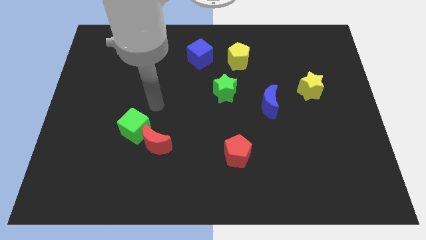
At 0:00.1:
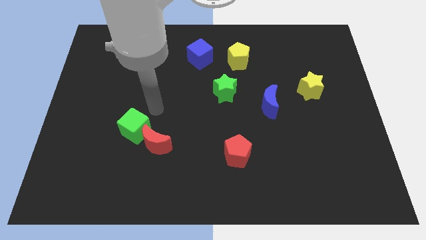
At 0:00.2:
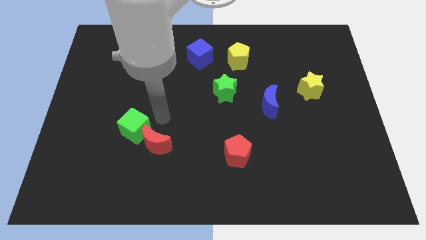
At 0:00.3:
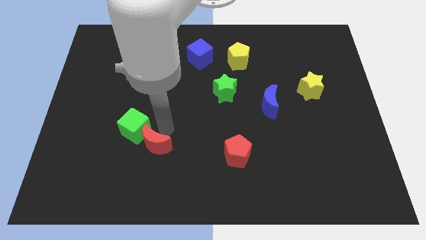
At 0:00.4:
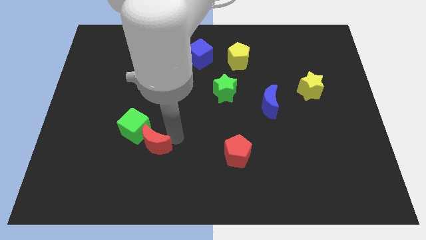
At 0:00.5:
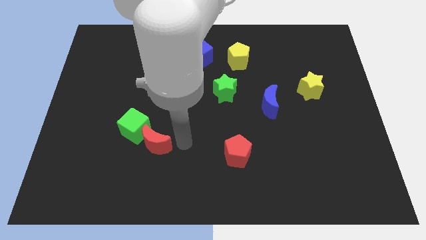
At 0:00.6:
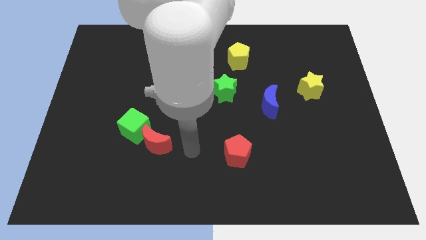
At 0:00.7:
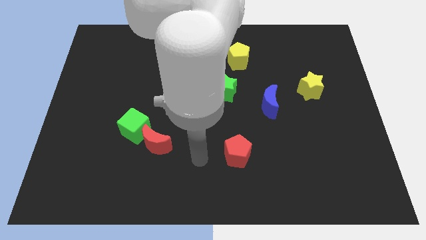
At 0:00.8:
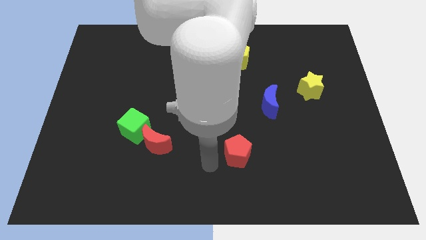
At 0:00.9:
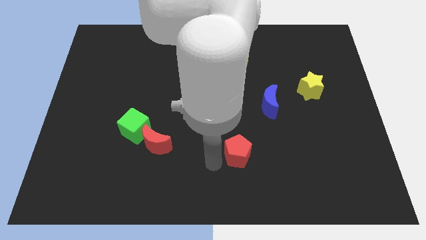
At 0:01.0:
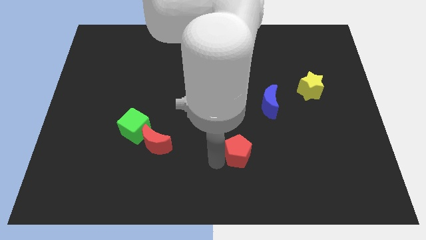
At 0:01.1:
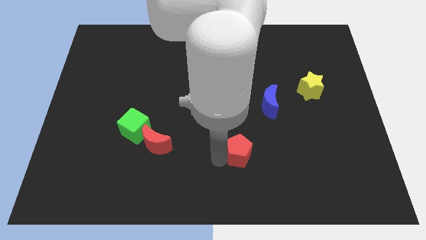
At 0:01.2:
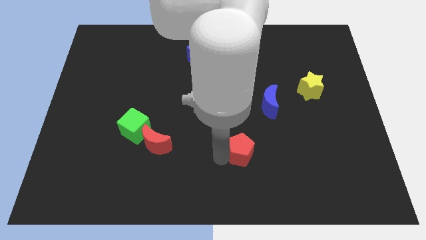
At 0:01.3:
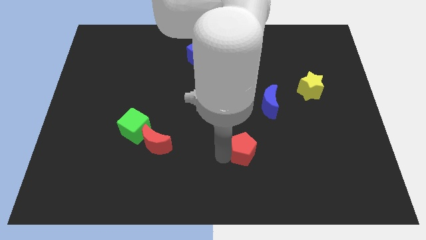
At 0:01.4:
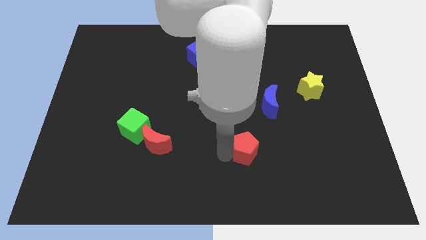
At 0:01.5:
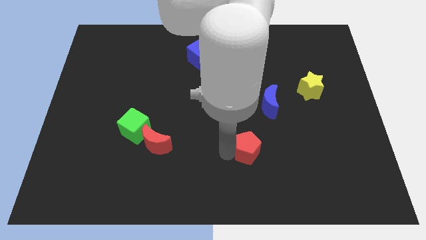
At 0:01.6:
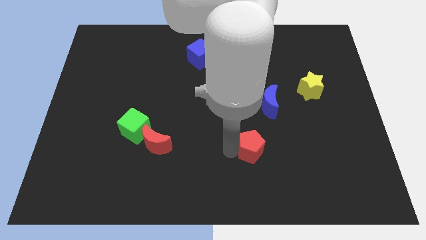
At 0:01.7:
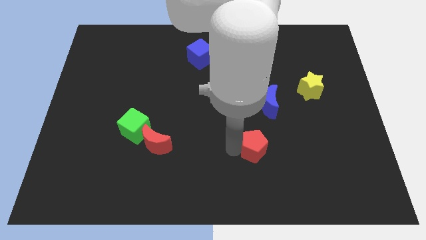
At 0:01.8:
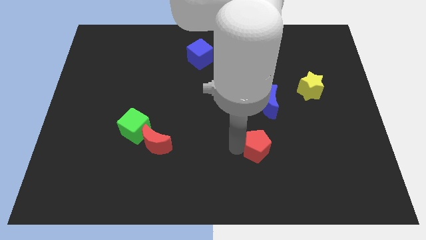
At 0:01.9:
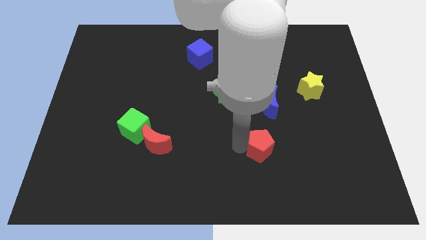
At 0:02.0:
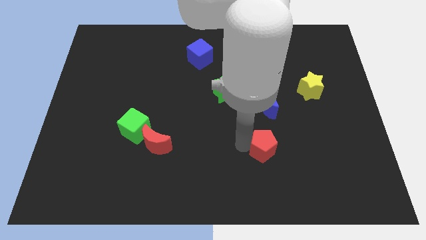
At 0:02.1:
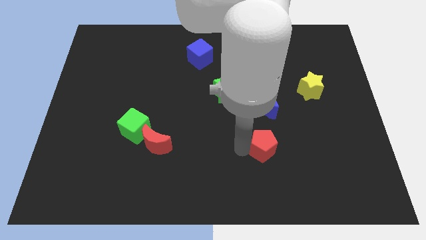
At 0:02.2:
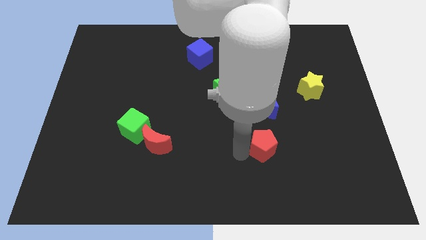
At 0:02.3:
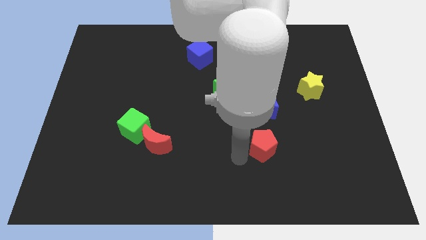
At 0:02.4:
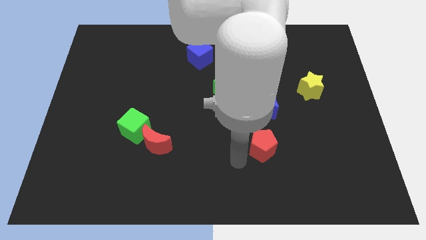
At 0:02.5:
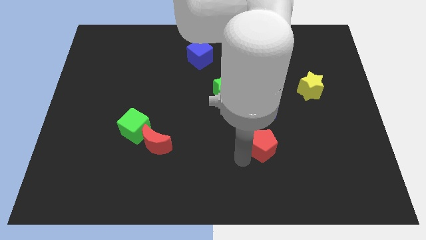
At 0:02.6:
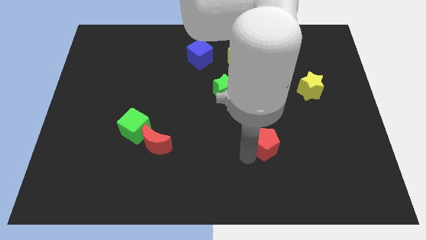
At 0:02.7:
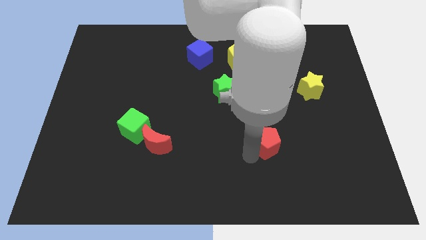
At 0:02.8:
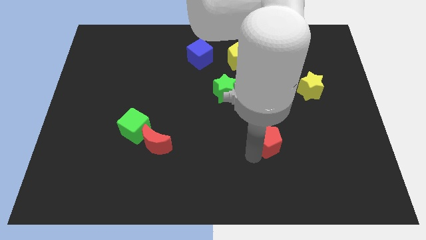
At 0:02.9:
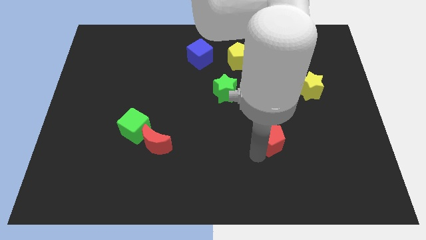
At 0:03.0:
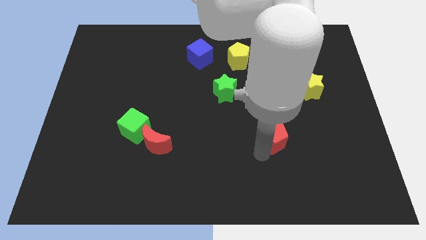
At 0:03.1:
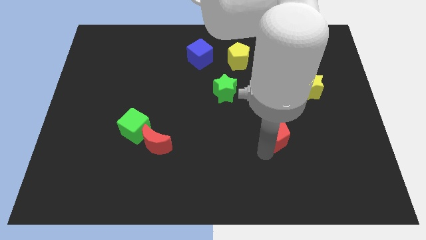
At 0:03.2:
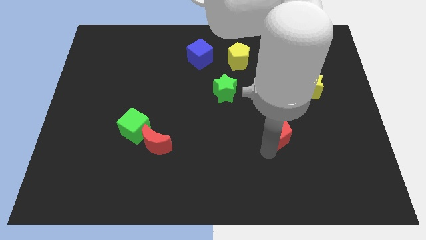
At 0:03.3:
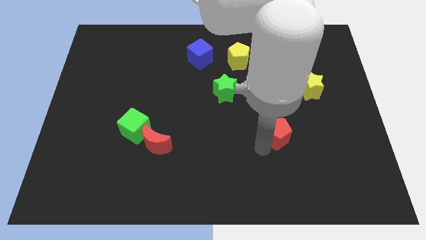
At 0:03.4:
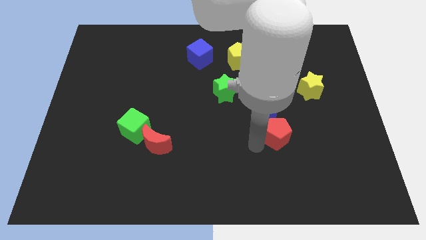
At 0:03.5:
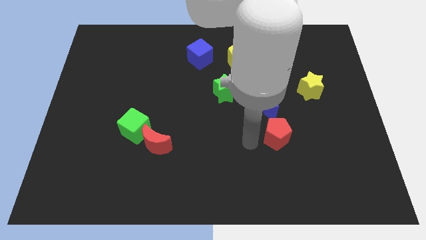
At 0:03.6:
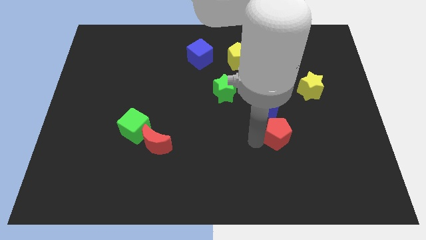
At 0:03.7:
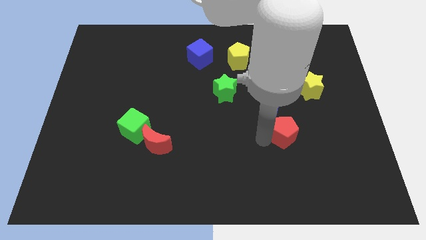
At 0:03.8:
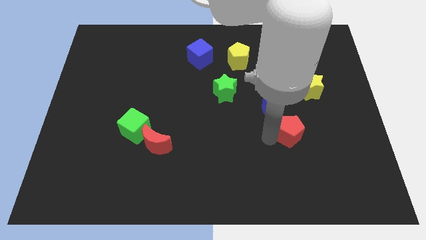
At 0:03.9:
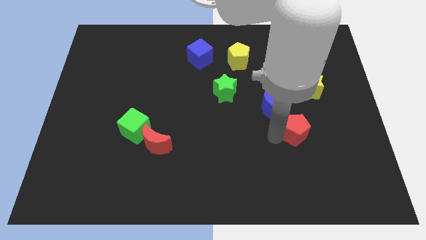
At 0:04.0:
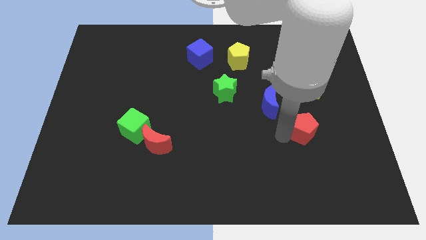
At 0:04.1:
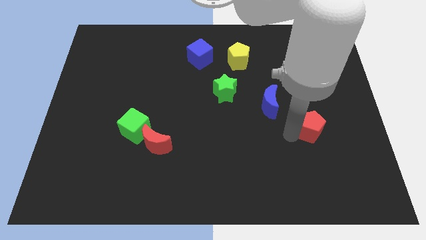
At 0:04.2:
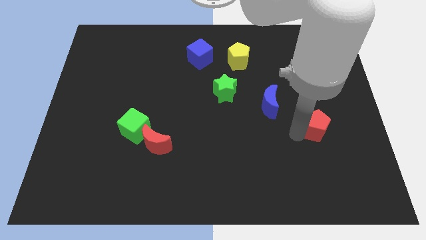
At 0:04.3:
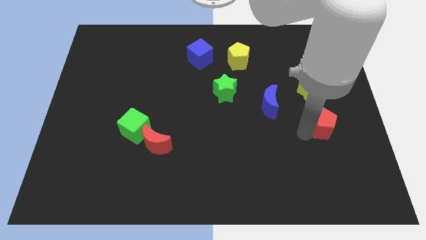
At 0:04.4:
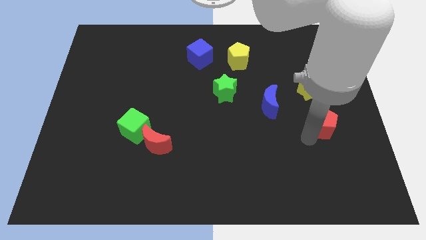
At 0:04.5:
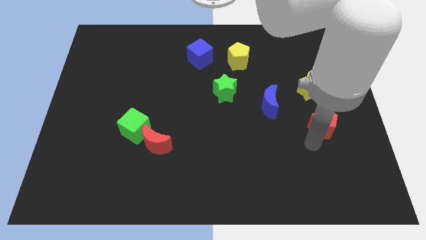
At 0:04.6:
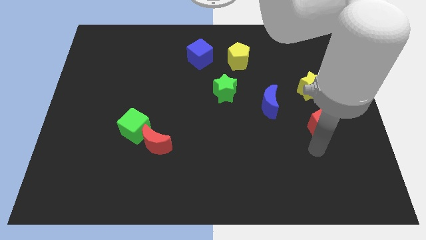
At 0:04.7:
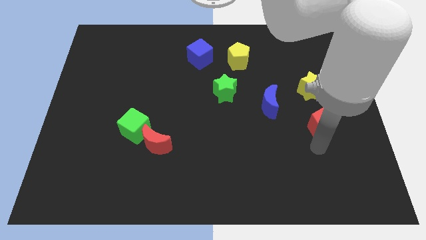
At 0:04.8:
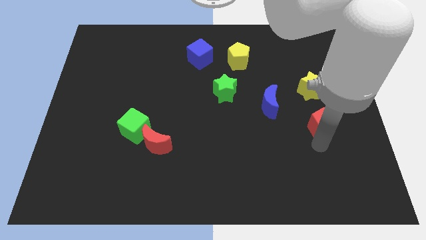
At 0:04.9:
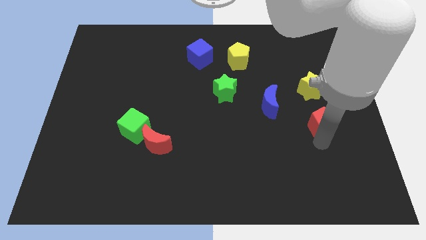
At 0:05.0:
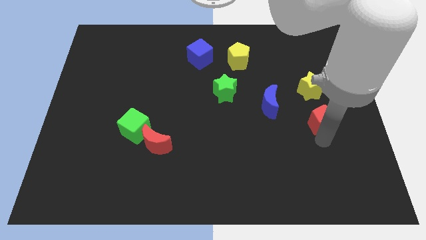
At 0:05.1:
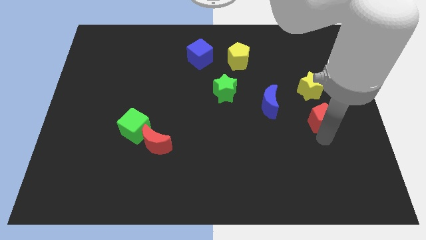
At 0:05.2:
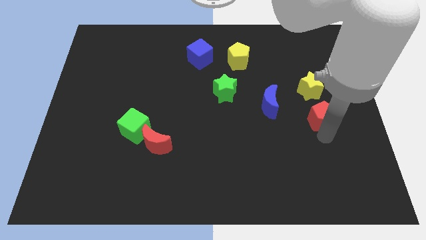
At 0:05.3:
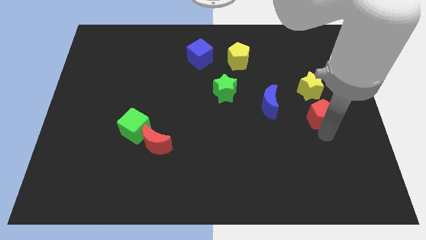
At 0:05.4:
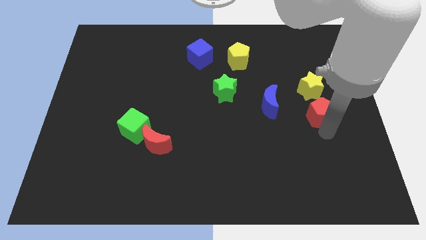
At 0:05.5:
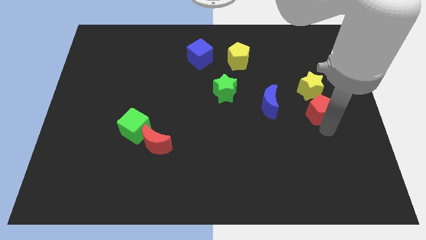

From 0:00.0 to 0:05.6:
push the red pentagon upwards and then to the right

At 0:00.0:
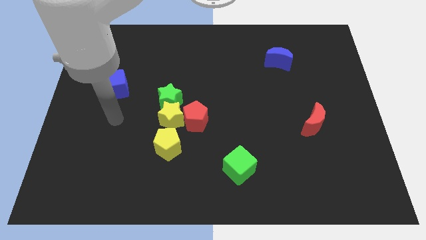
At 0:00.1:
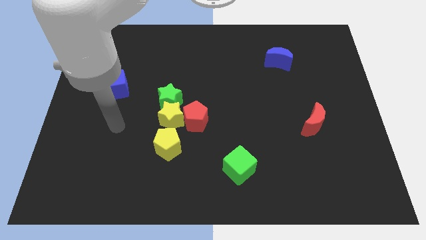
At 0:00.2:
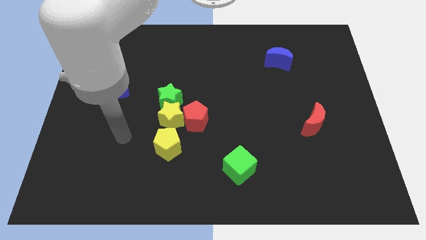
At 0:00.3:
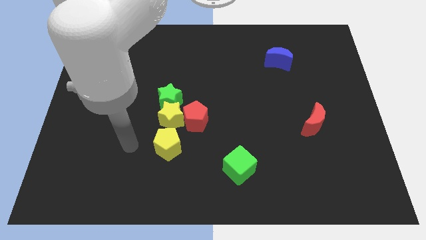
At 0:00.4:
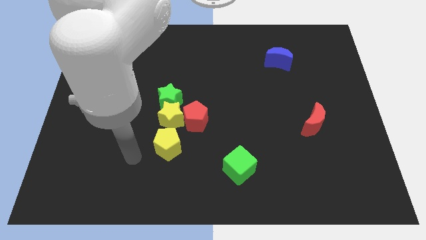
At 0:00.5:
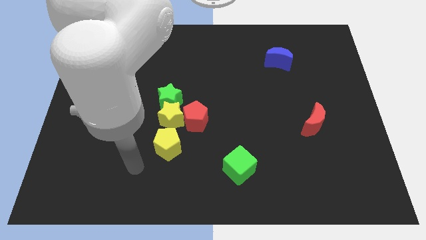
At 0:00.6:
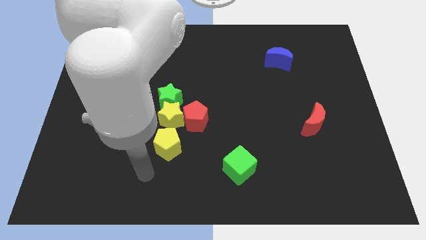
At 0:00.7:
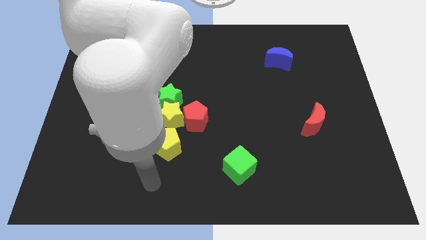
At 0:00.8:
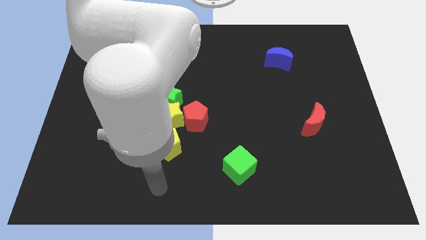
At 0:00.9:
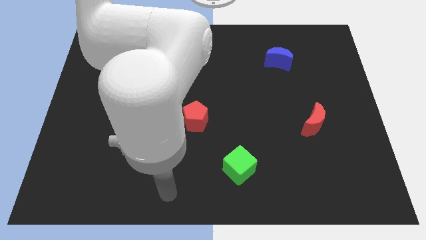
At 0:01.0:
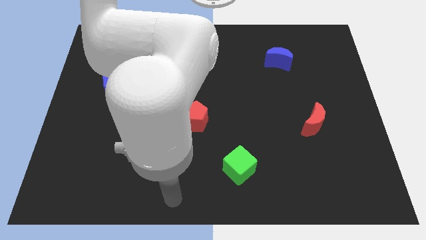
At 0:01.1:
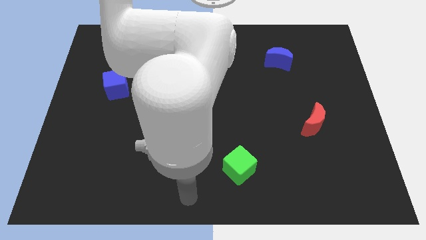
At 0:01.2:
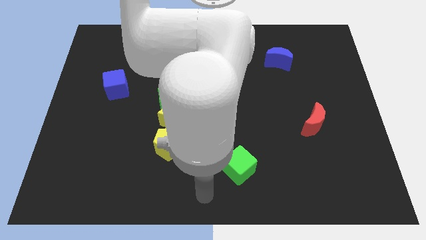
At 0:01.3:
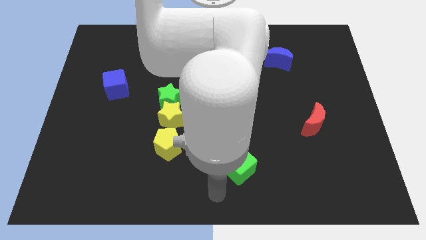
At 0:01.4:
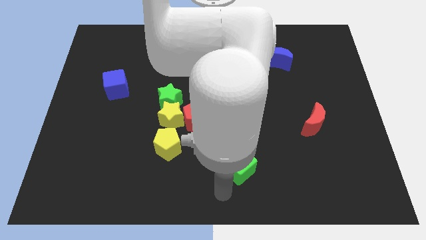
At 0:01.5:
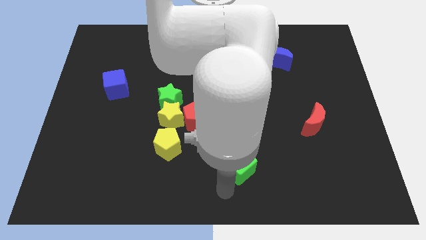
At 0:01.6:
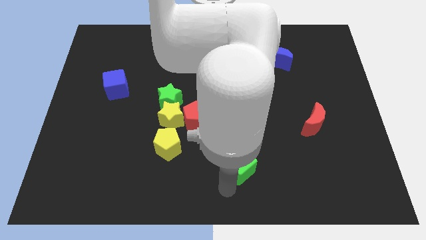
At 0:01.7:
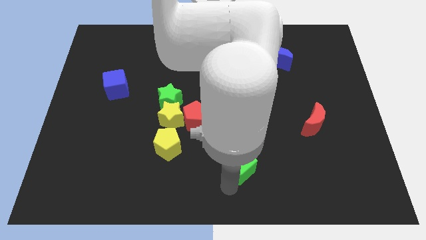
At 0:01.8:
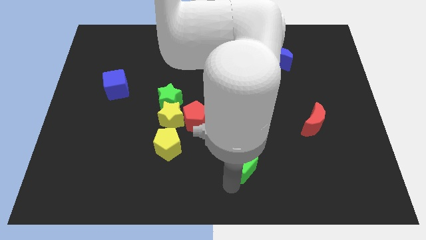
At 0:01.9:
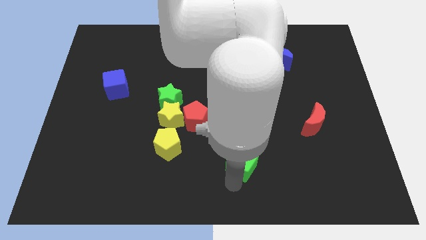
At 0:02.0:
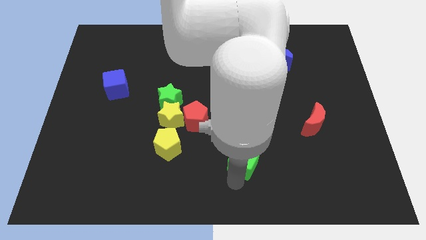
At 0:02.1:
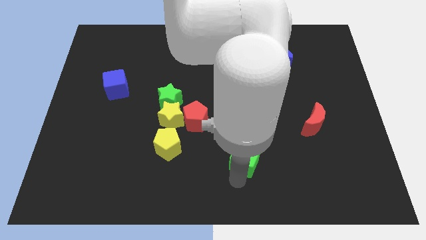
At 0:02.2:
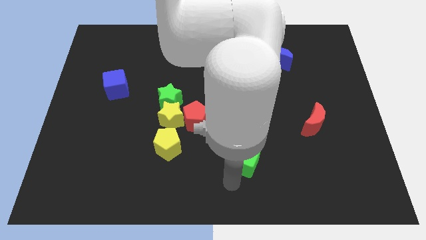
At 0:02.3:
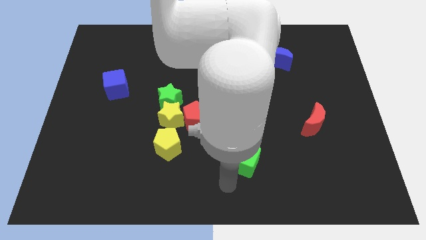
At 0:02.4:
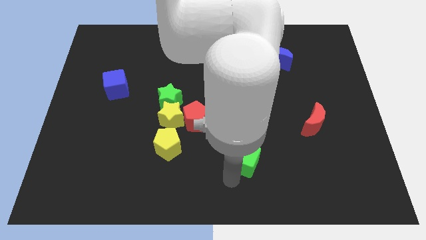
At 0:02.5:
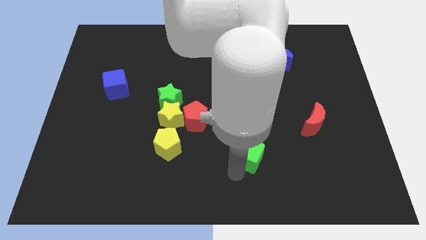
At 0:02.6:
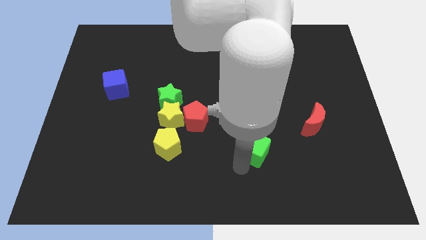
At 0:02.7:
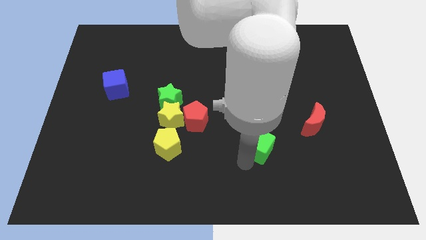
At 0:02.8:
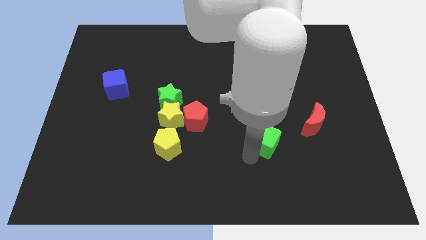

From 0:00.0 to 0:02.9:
push the green cube up and then right somewhat
